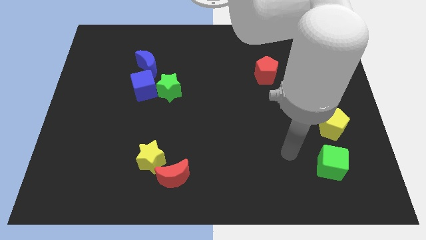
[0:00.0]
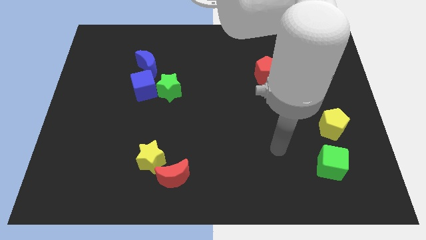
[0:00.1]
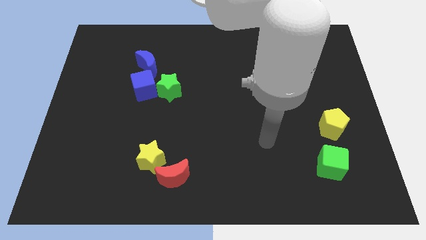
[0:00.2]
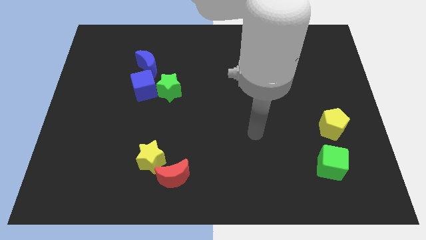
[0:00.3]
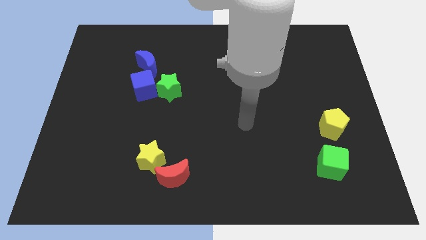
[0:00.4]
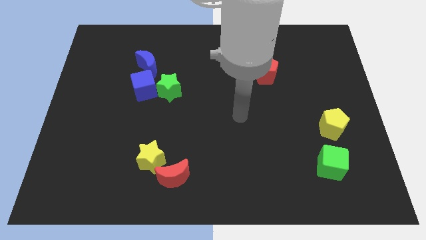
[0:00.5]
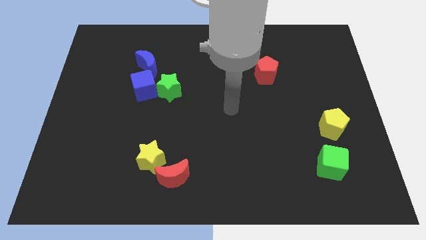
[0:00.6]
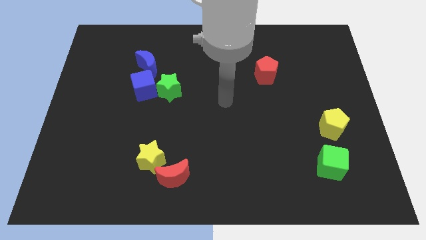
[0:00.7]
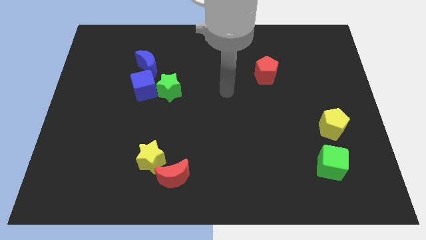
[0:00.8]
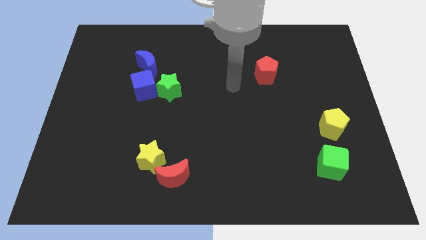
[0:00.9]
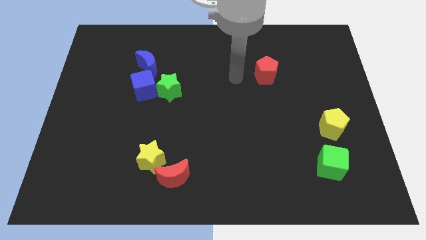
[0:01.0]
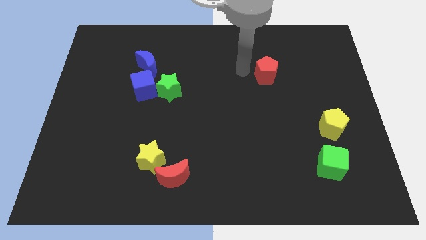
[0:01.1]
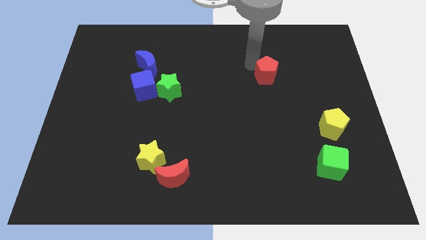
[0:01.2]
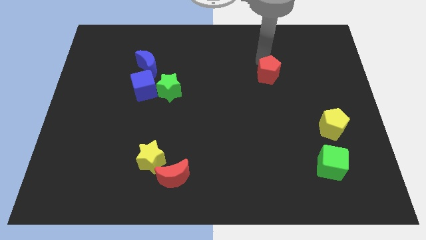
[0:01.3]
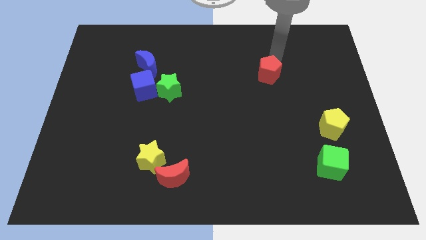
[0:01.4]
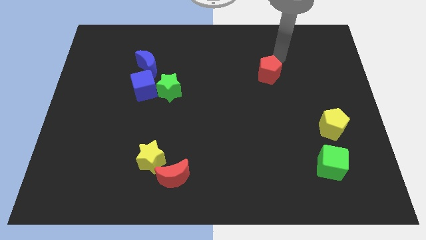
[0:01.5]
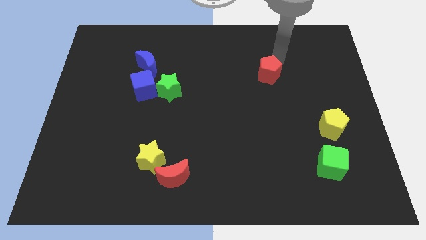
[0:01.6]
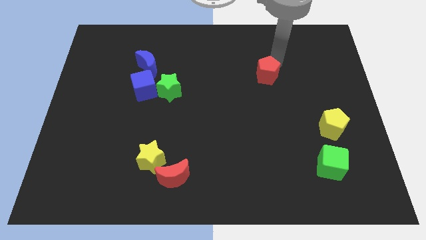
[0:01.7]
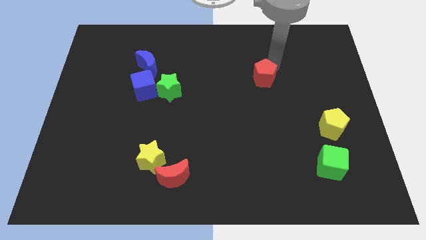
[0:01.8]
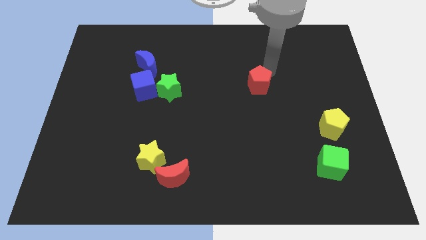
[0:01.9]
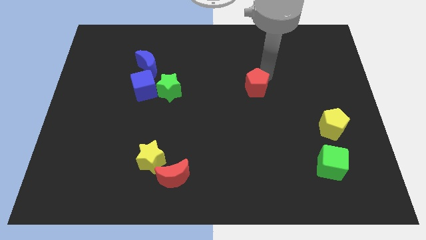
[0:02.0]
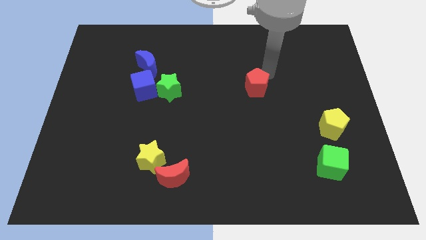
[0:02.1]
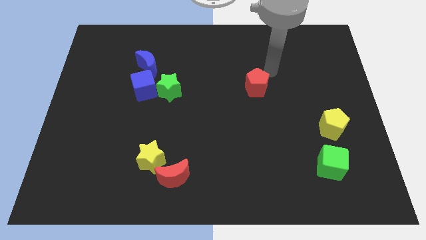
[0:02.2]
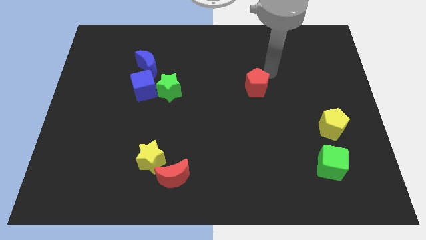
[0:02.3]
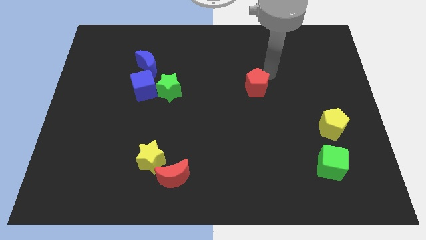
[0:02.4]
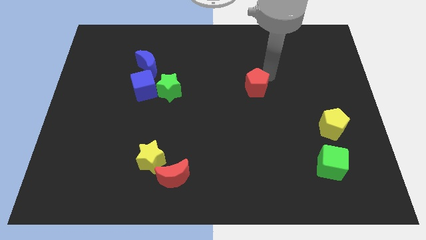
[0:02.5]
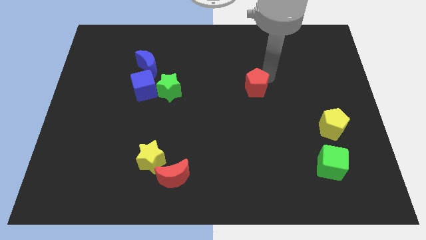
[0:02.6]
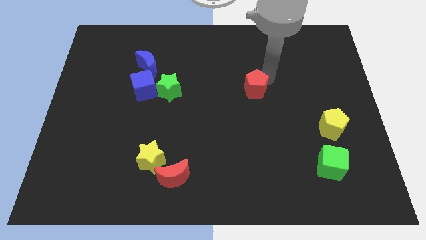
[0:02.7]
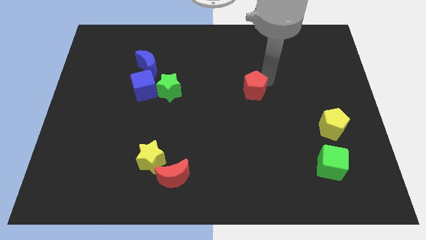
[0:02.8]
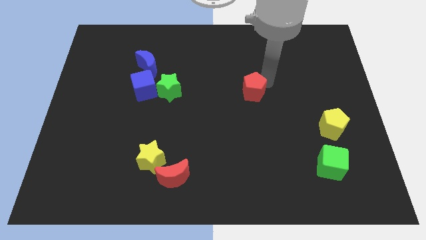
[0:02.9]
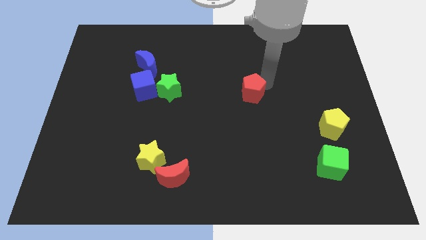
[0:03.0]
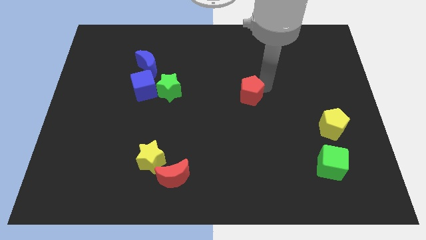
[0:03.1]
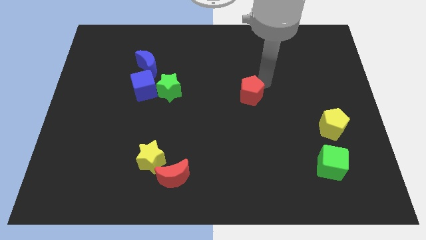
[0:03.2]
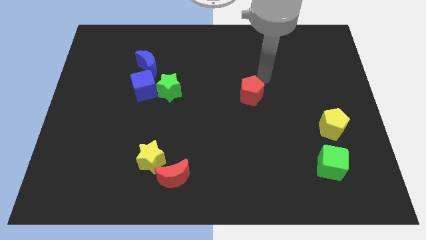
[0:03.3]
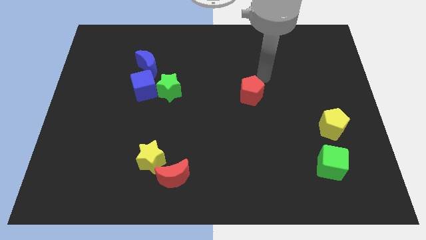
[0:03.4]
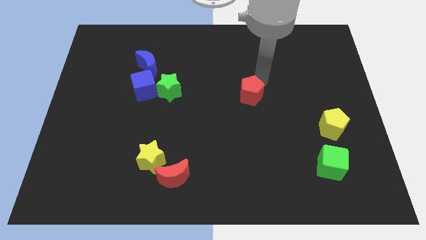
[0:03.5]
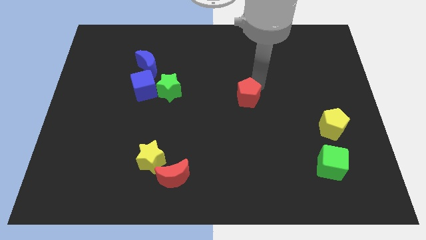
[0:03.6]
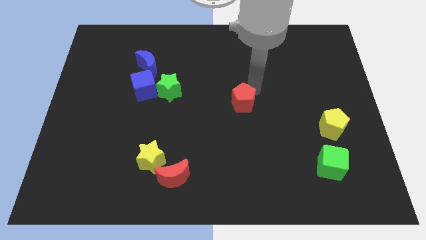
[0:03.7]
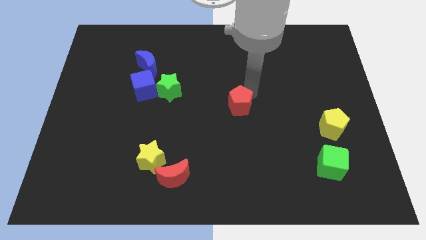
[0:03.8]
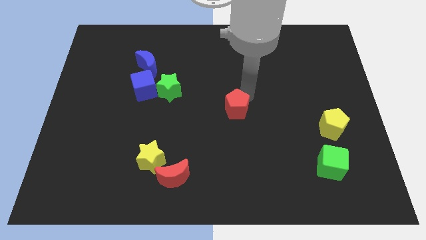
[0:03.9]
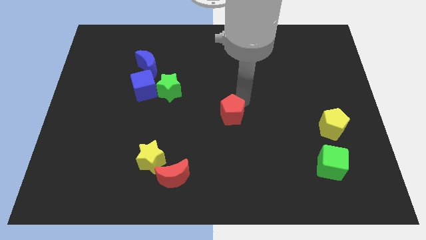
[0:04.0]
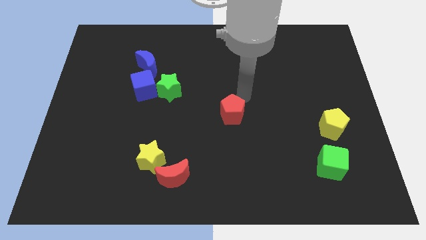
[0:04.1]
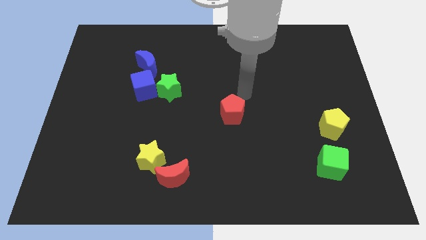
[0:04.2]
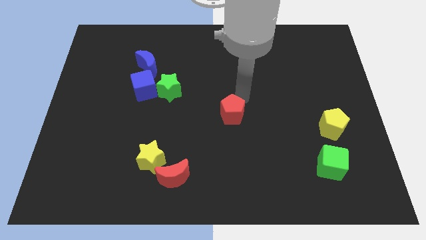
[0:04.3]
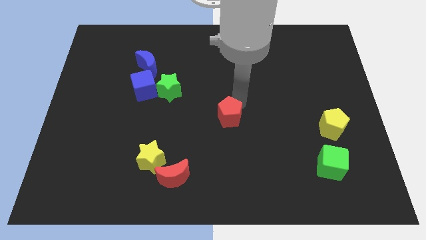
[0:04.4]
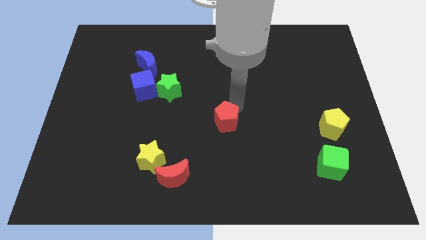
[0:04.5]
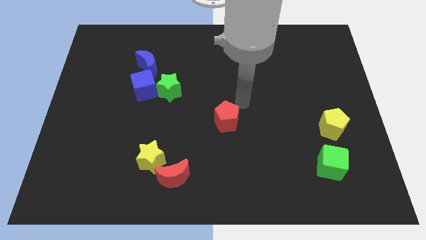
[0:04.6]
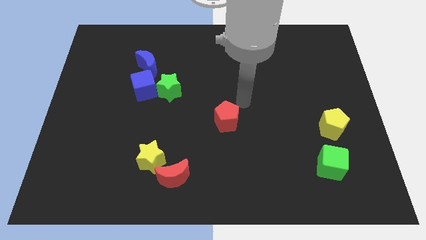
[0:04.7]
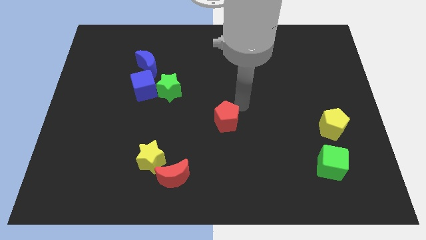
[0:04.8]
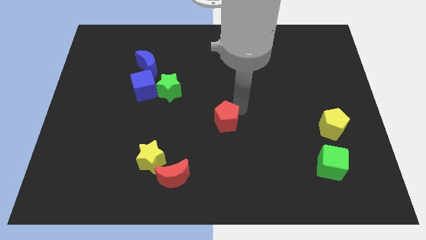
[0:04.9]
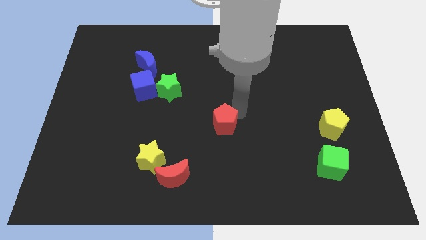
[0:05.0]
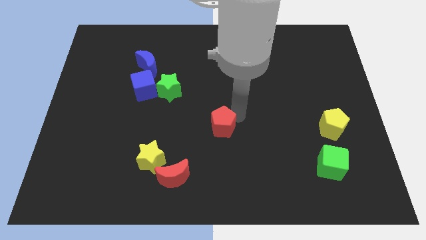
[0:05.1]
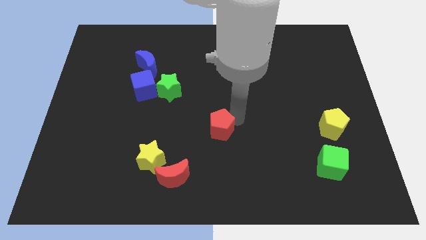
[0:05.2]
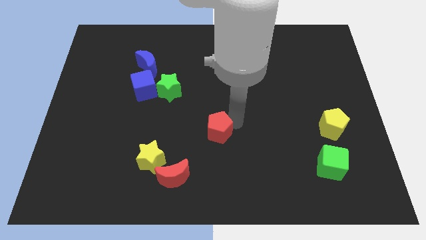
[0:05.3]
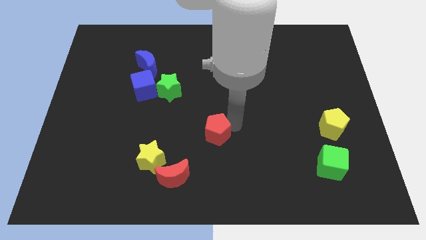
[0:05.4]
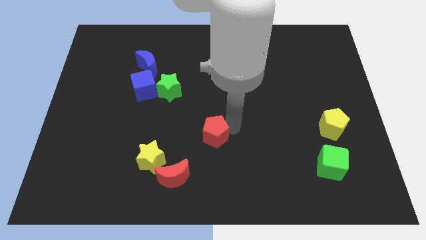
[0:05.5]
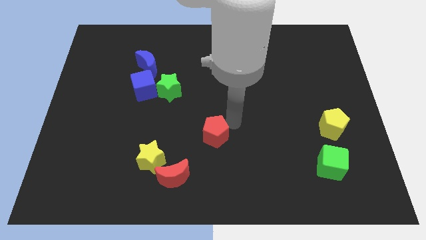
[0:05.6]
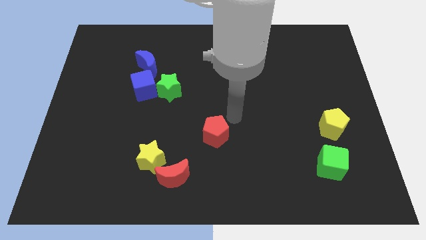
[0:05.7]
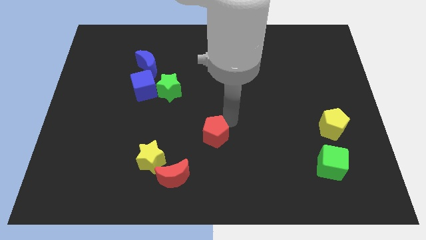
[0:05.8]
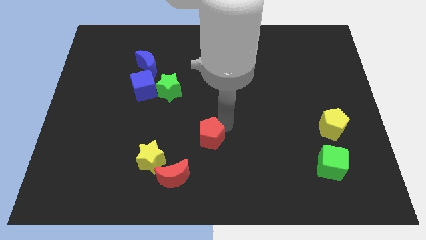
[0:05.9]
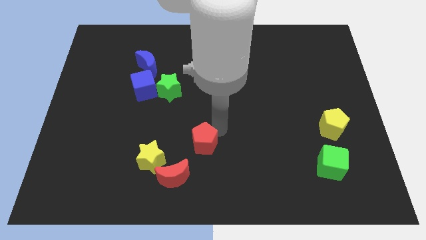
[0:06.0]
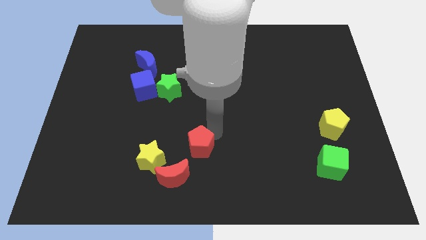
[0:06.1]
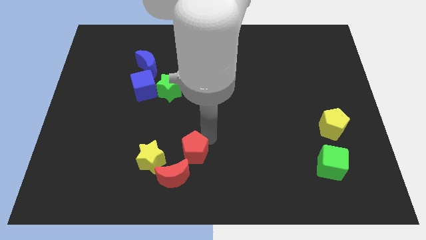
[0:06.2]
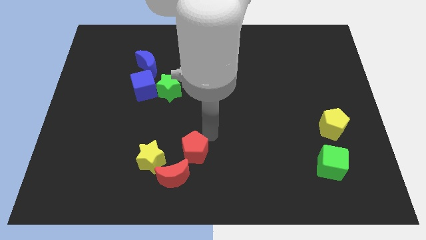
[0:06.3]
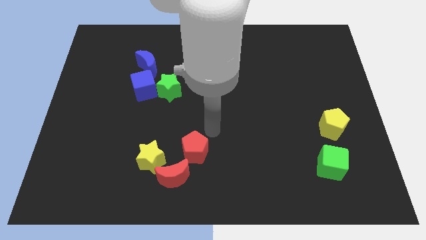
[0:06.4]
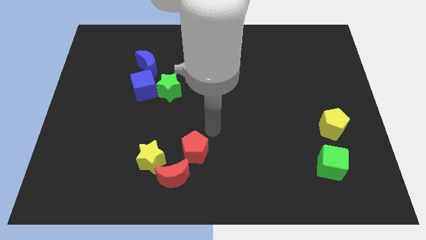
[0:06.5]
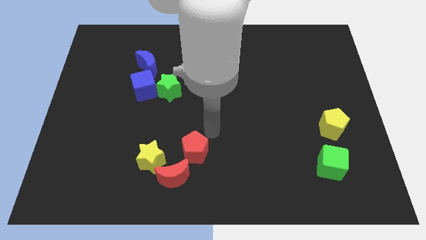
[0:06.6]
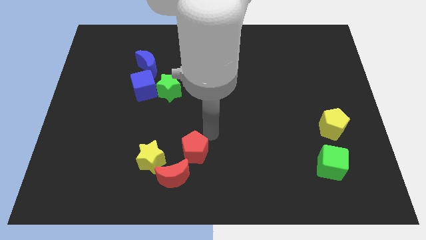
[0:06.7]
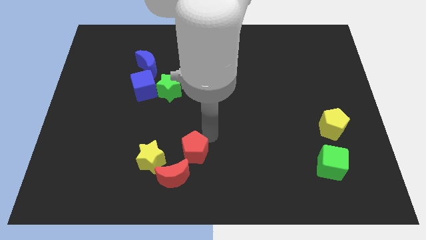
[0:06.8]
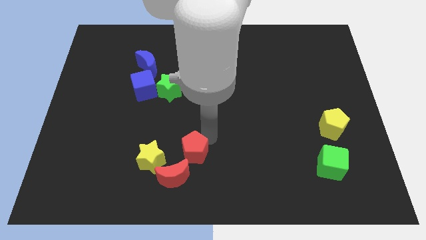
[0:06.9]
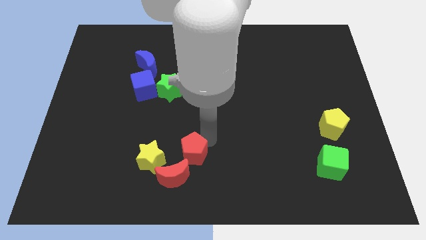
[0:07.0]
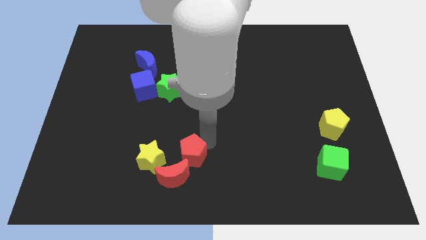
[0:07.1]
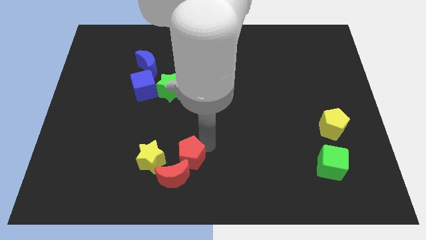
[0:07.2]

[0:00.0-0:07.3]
push the red pentagon next to the red moon

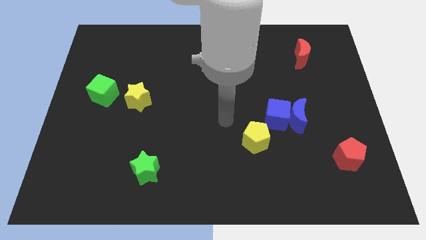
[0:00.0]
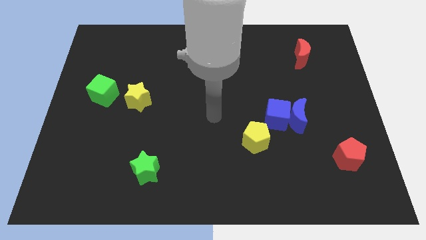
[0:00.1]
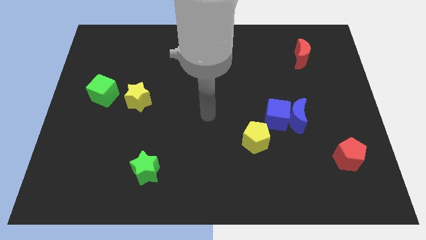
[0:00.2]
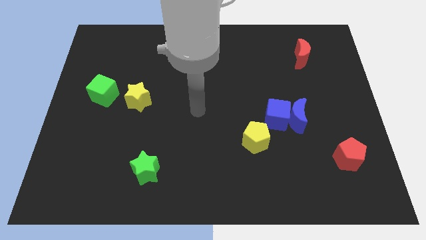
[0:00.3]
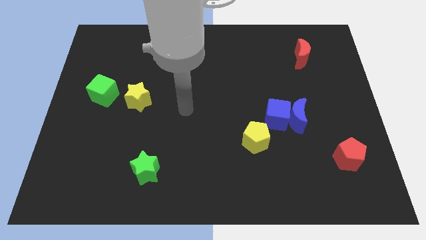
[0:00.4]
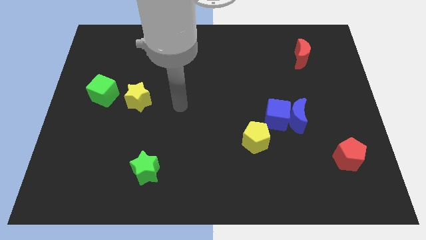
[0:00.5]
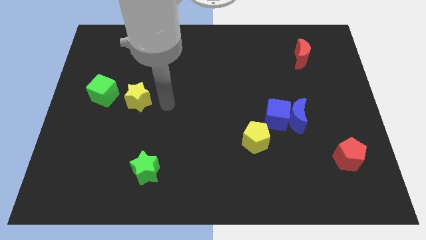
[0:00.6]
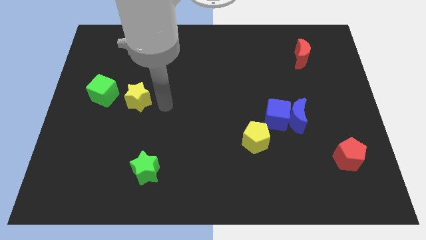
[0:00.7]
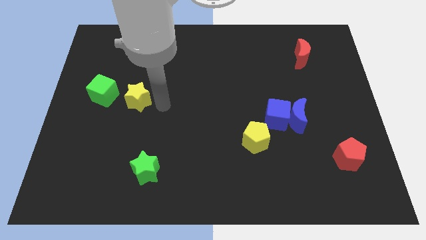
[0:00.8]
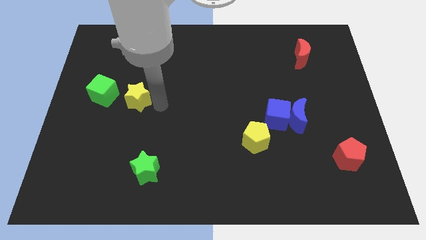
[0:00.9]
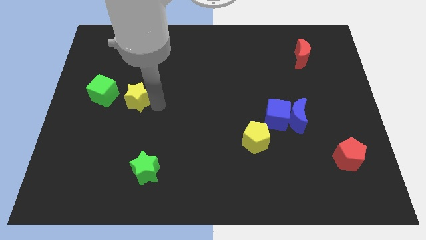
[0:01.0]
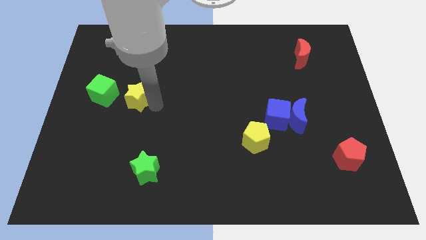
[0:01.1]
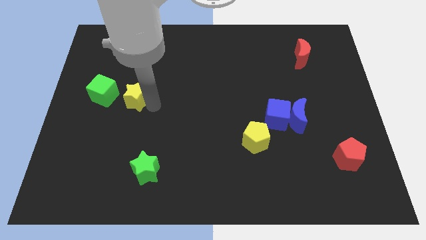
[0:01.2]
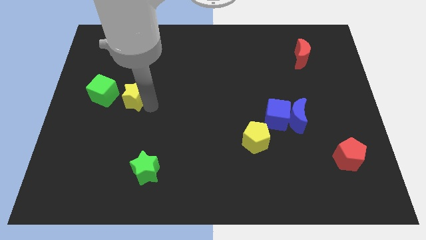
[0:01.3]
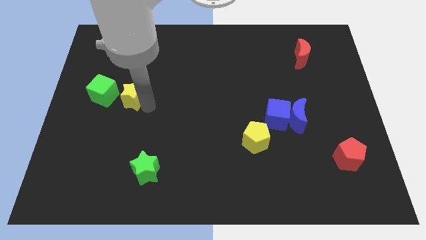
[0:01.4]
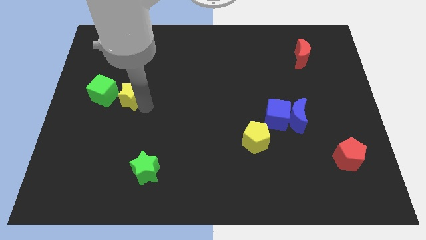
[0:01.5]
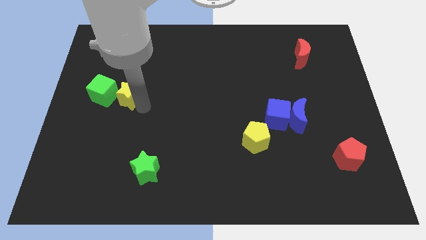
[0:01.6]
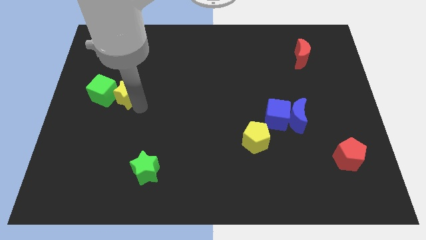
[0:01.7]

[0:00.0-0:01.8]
move the yellow star close to the green cube
